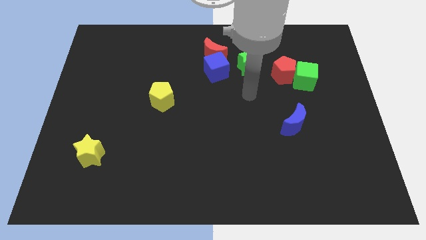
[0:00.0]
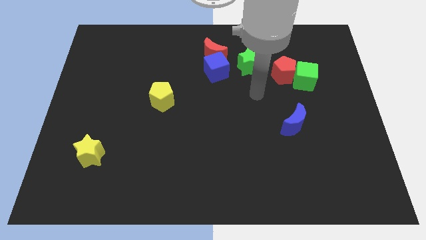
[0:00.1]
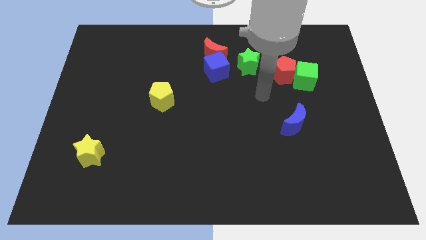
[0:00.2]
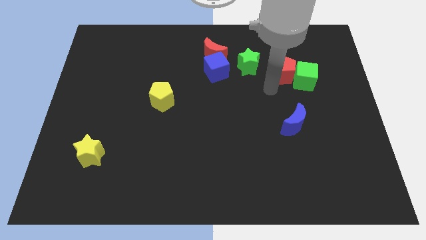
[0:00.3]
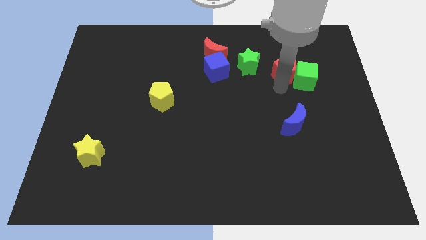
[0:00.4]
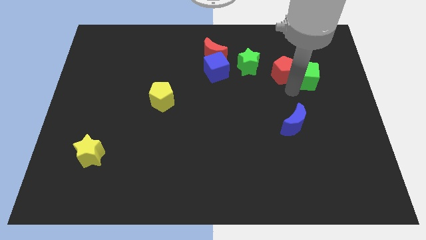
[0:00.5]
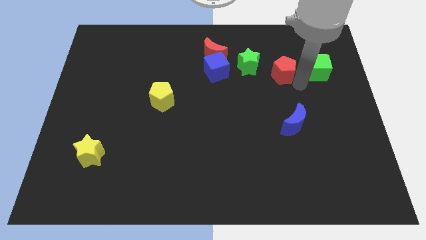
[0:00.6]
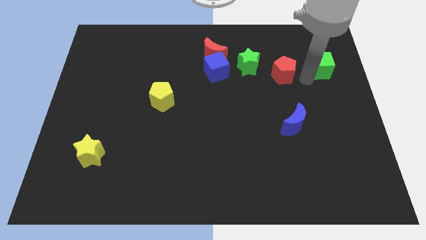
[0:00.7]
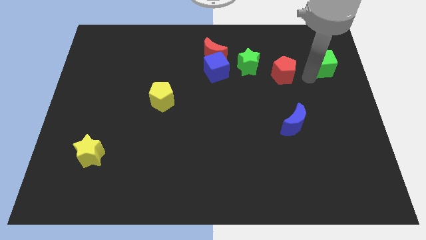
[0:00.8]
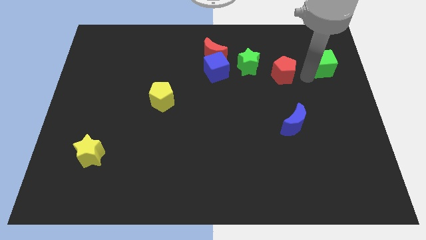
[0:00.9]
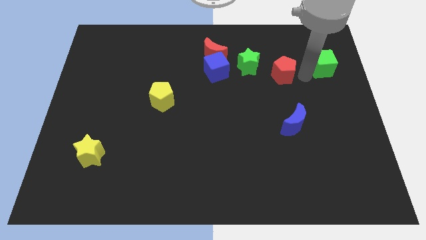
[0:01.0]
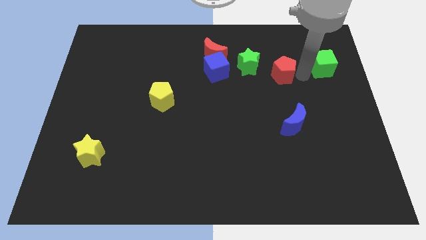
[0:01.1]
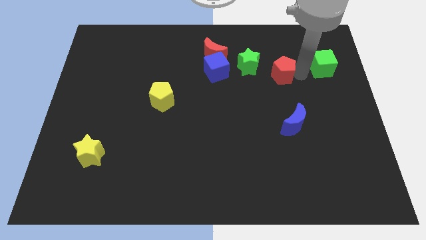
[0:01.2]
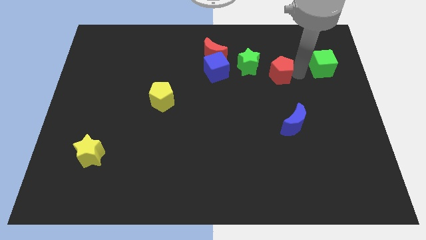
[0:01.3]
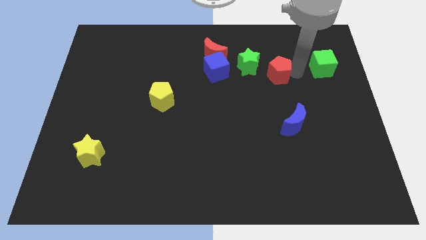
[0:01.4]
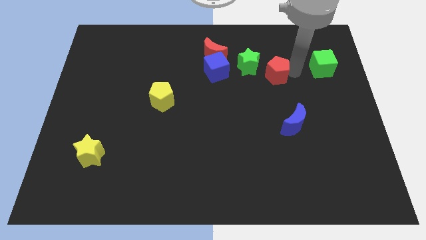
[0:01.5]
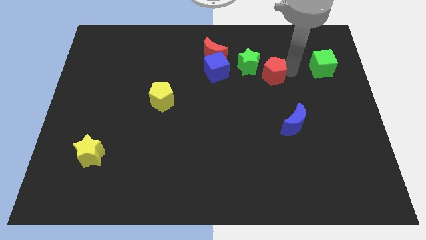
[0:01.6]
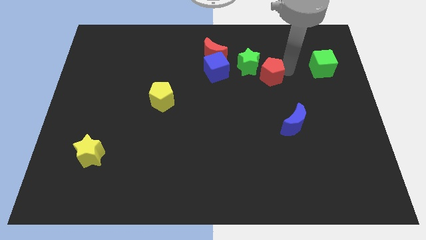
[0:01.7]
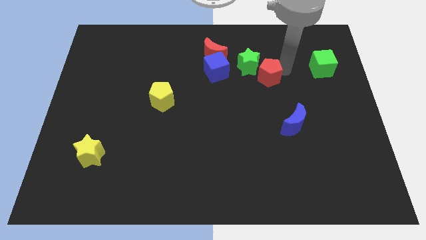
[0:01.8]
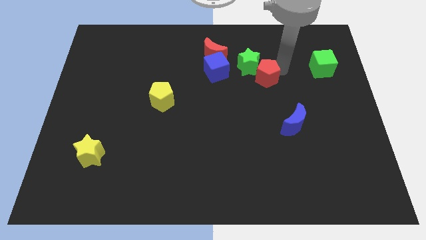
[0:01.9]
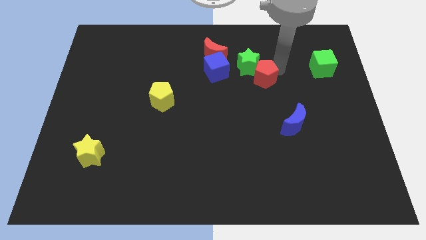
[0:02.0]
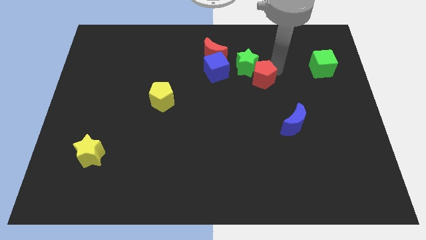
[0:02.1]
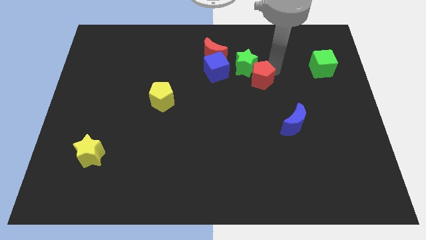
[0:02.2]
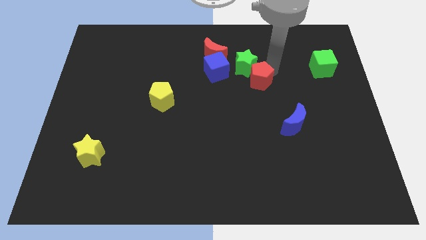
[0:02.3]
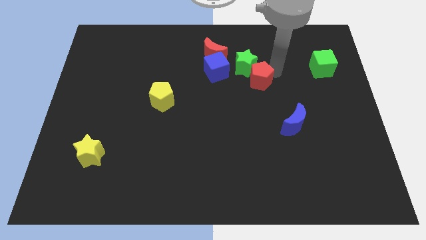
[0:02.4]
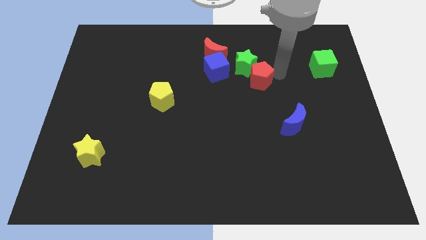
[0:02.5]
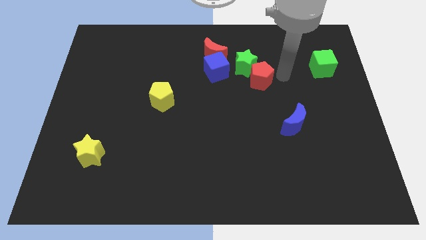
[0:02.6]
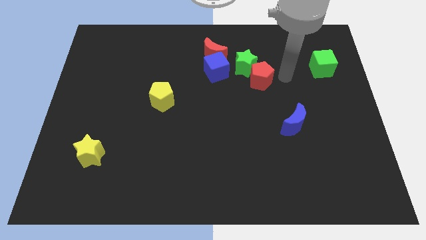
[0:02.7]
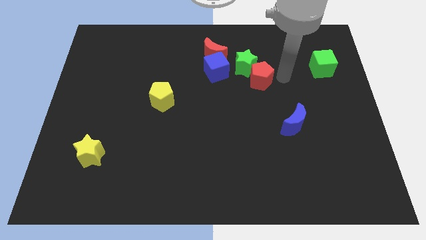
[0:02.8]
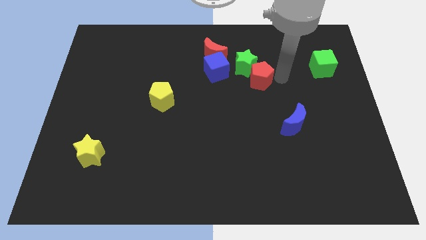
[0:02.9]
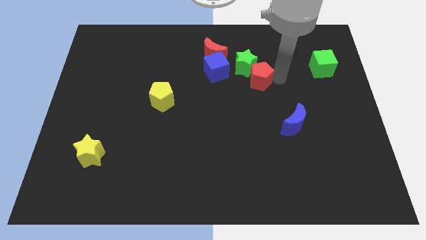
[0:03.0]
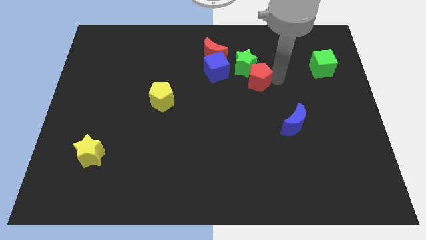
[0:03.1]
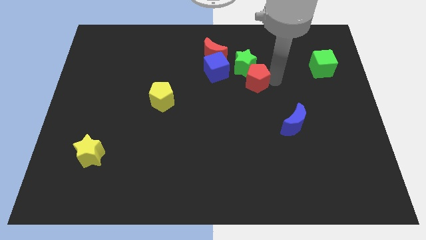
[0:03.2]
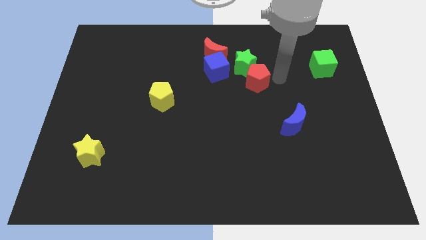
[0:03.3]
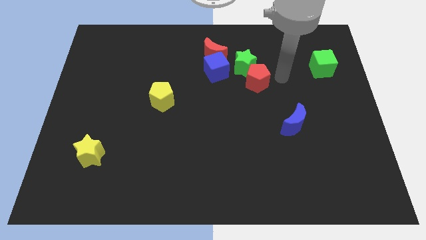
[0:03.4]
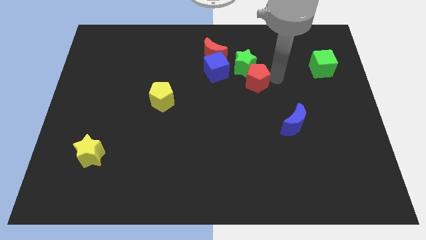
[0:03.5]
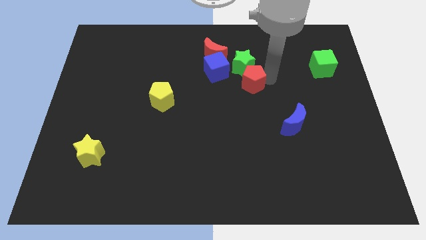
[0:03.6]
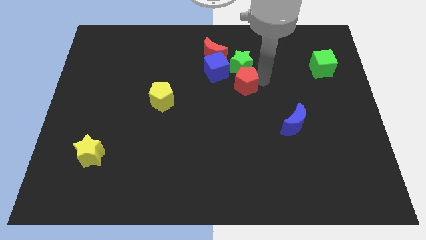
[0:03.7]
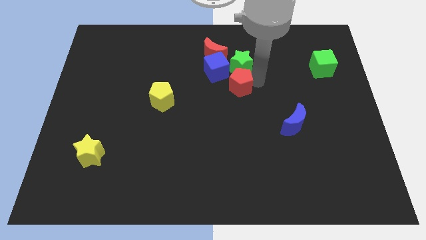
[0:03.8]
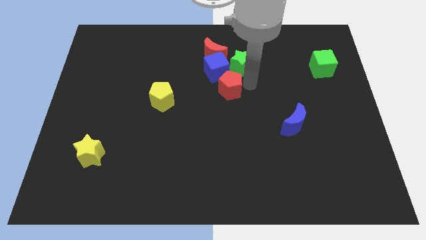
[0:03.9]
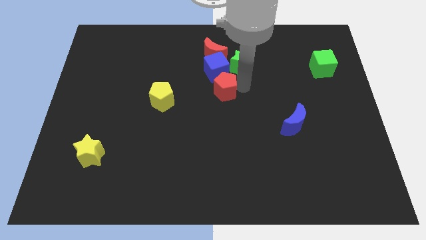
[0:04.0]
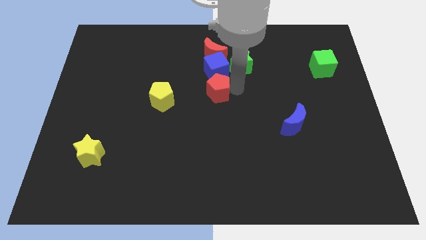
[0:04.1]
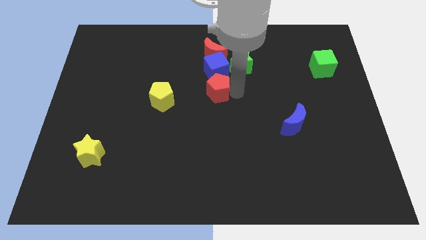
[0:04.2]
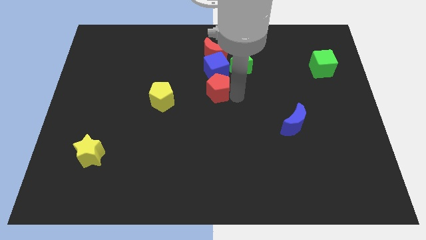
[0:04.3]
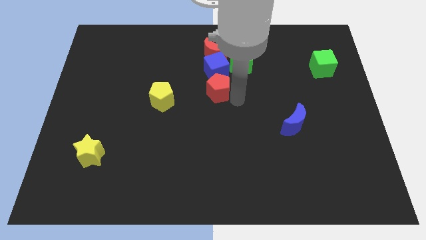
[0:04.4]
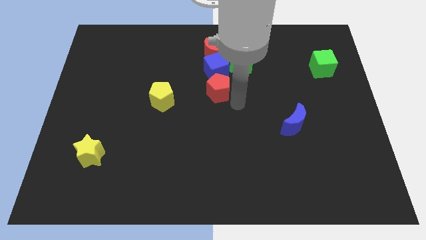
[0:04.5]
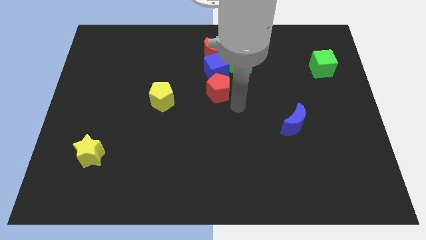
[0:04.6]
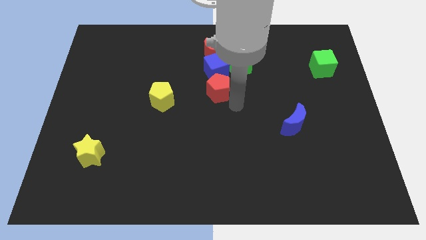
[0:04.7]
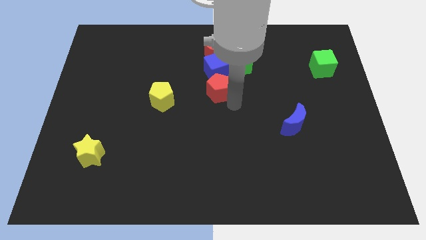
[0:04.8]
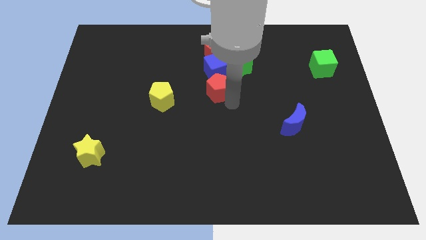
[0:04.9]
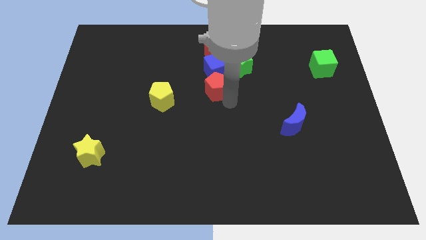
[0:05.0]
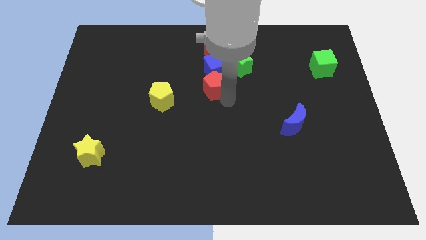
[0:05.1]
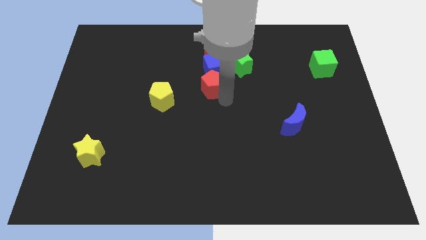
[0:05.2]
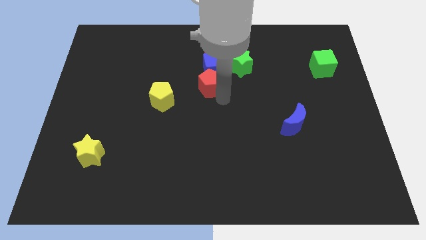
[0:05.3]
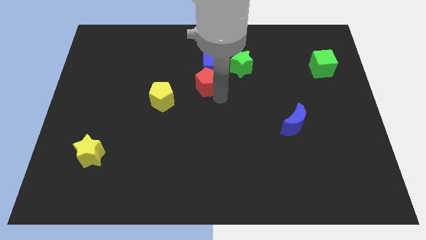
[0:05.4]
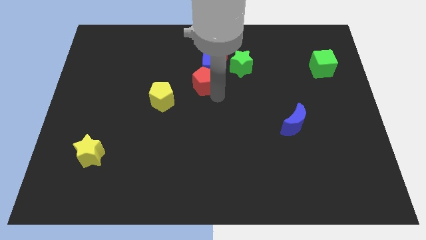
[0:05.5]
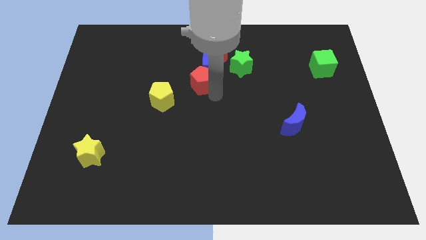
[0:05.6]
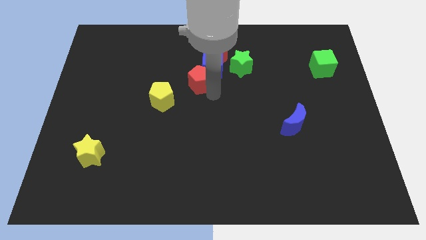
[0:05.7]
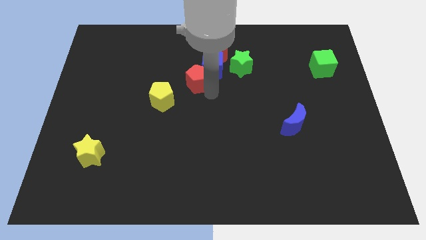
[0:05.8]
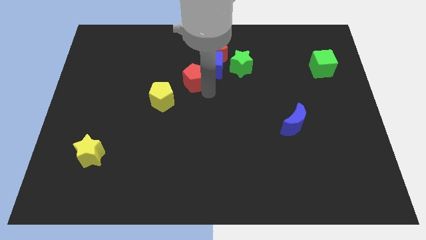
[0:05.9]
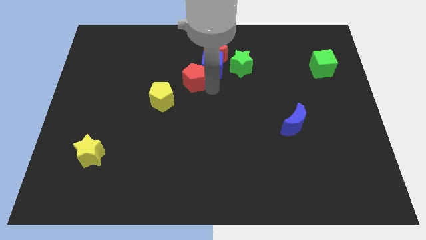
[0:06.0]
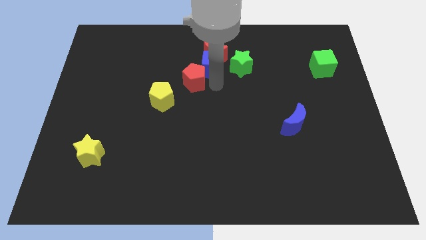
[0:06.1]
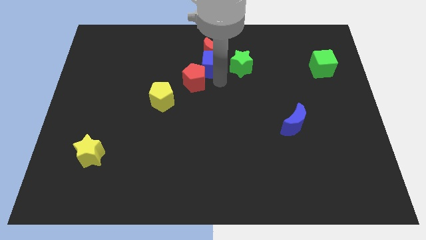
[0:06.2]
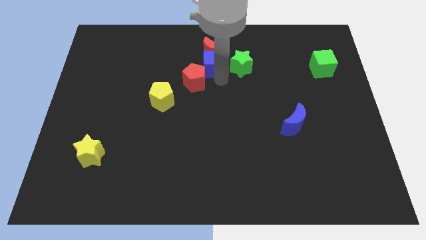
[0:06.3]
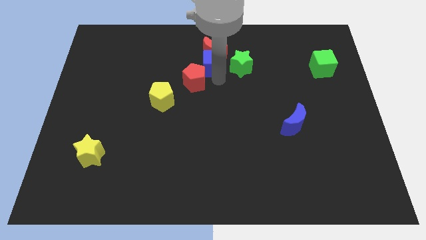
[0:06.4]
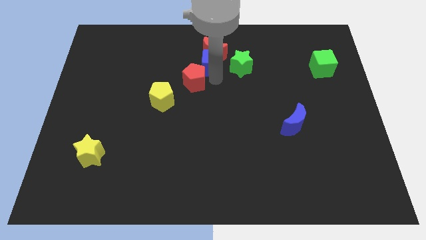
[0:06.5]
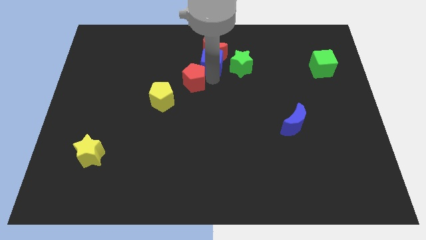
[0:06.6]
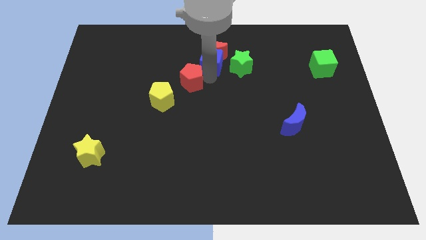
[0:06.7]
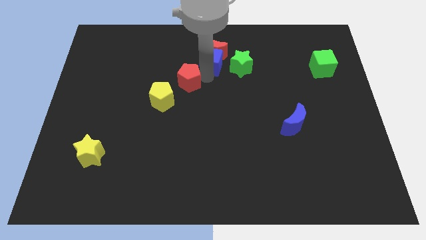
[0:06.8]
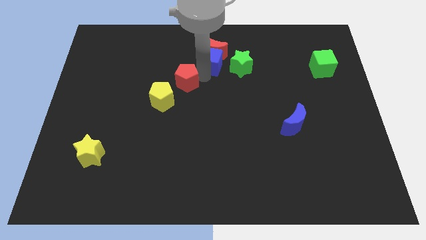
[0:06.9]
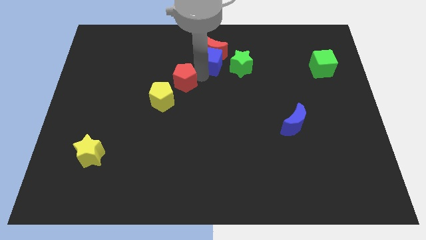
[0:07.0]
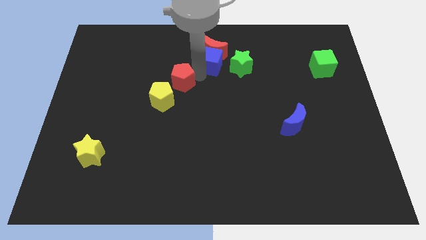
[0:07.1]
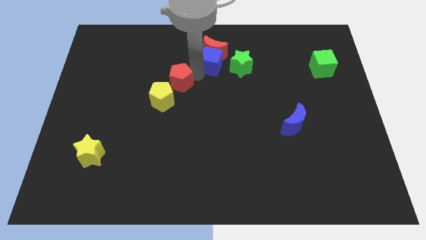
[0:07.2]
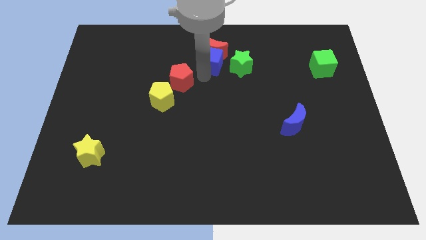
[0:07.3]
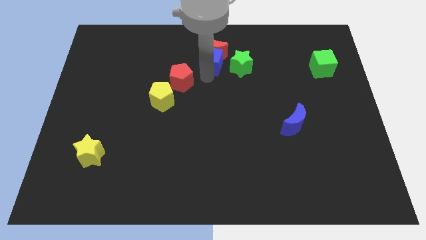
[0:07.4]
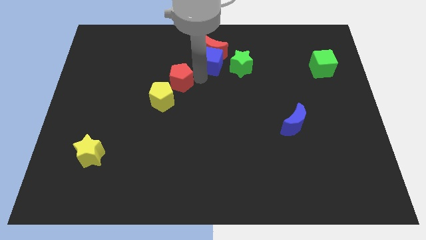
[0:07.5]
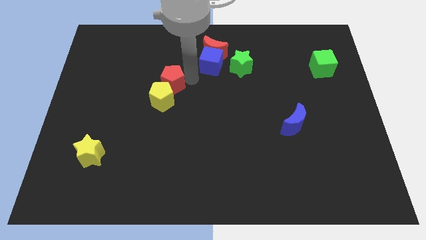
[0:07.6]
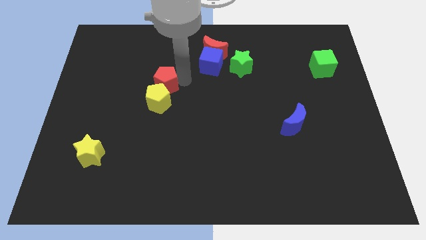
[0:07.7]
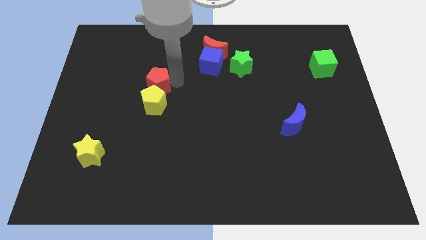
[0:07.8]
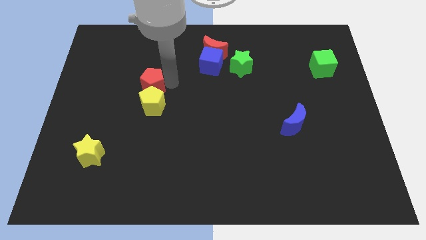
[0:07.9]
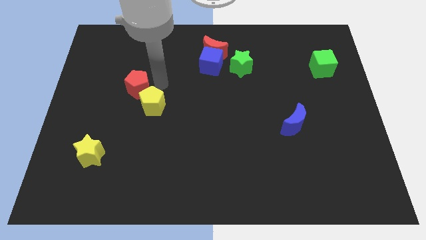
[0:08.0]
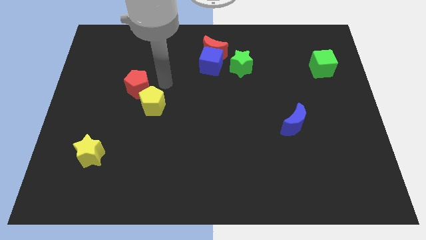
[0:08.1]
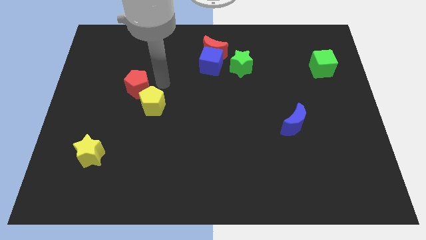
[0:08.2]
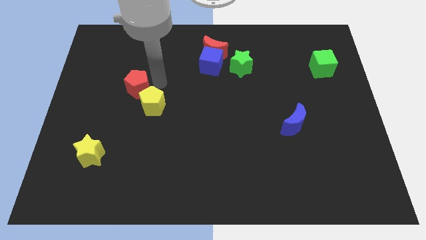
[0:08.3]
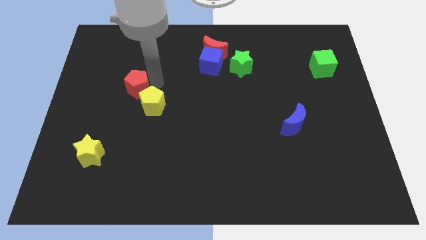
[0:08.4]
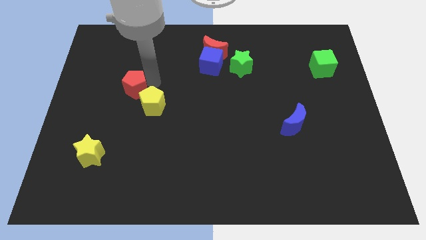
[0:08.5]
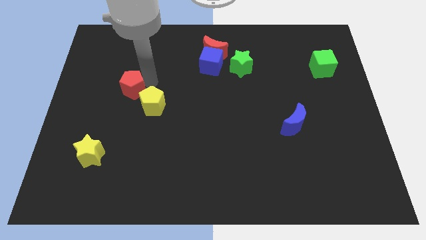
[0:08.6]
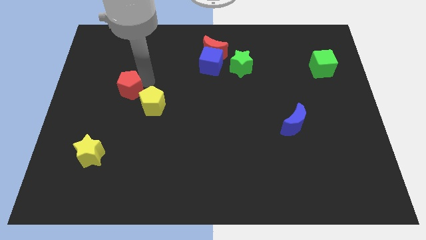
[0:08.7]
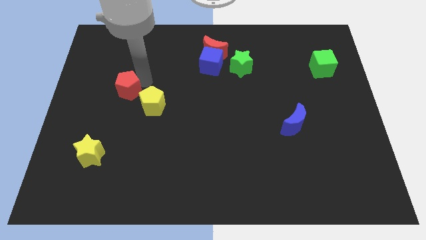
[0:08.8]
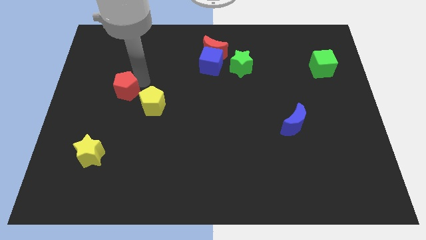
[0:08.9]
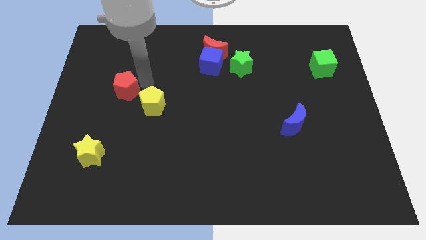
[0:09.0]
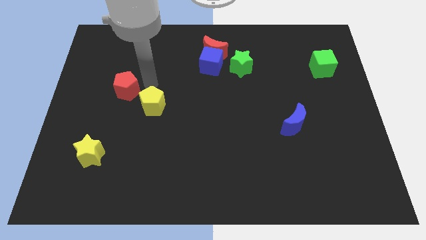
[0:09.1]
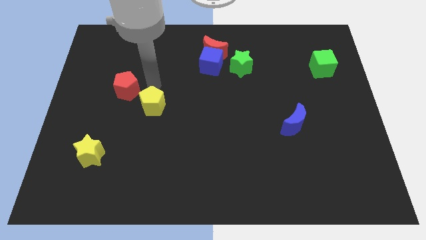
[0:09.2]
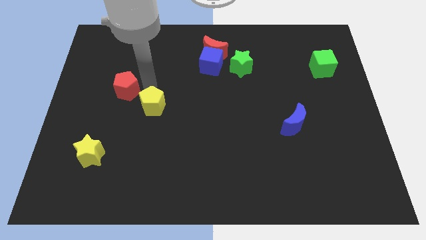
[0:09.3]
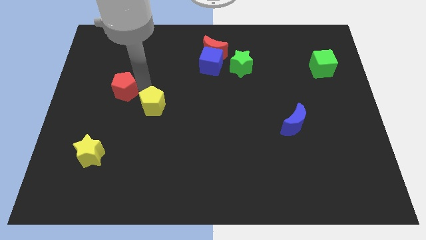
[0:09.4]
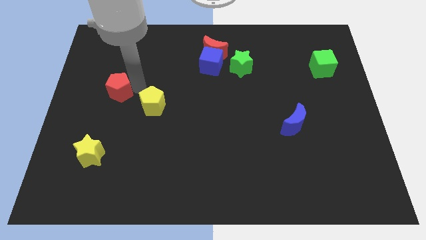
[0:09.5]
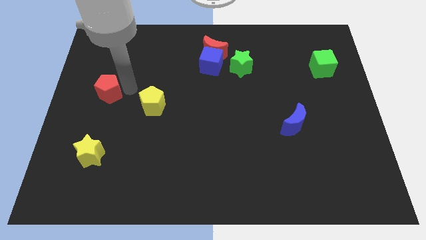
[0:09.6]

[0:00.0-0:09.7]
move the red pentagon to the center left
